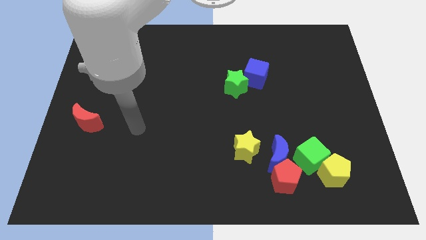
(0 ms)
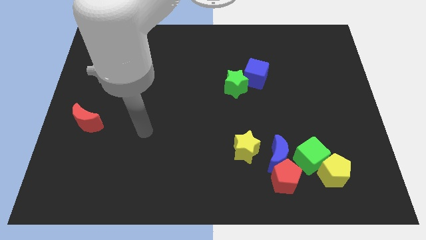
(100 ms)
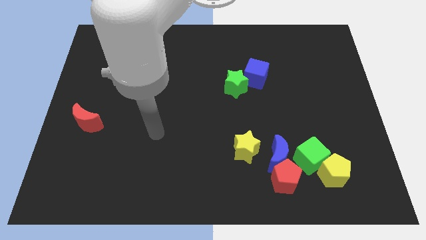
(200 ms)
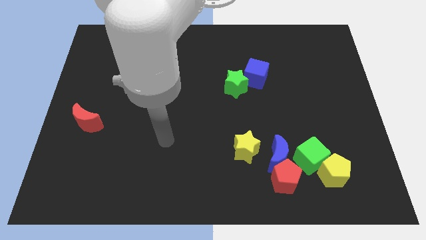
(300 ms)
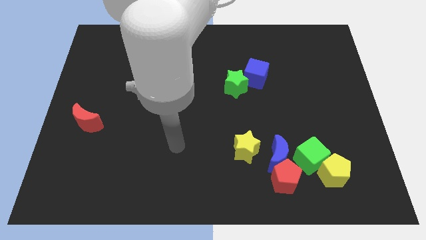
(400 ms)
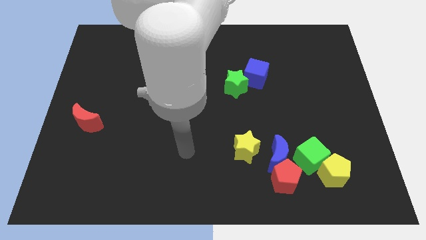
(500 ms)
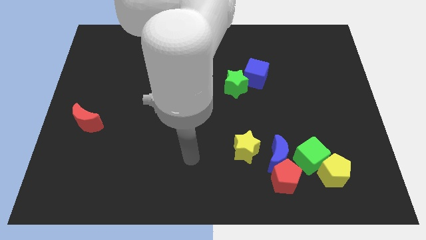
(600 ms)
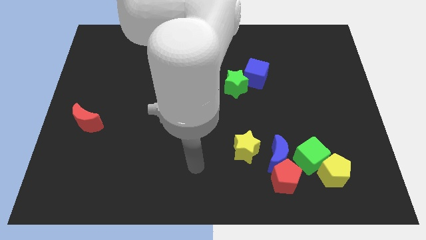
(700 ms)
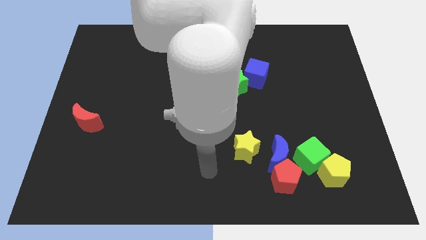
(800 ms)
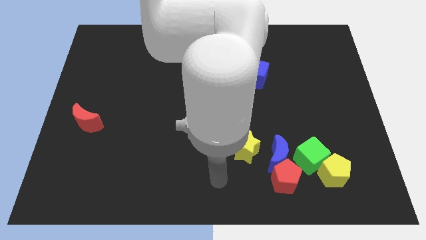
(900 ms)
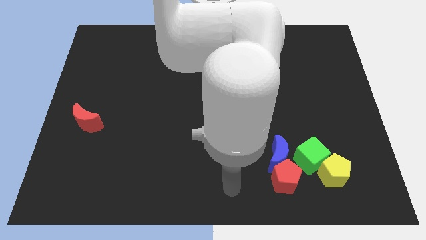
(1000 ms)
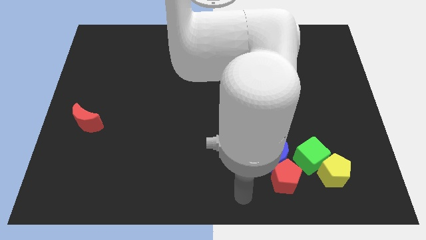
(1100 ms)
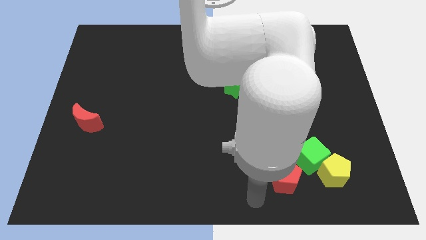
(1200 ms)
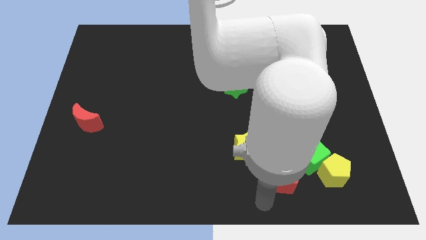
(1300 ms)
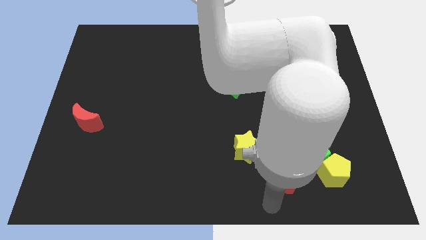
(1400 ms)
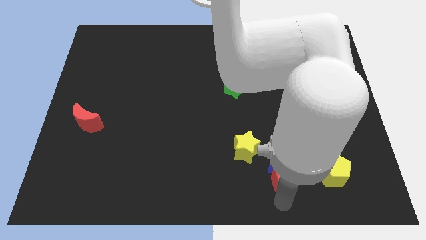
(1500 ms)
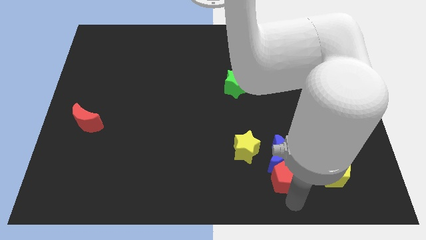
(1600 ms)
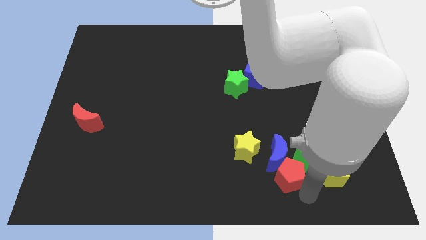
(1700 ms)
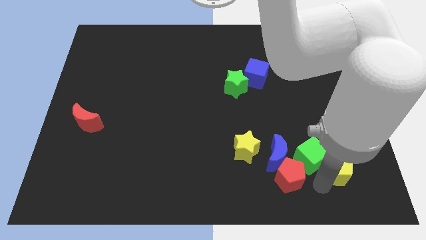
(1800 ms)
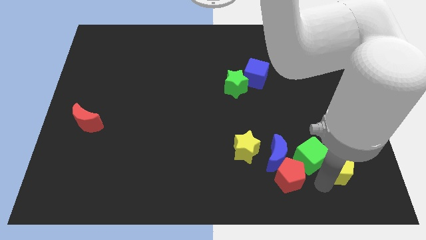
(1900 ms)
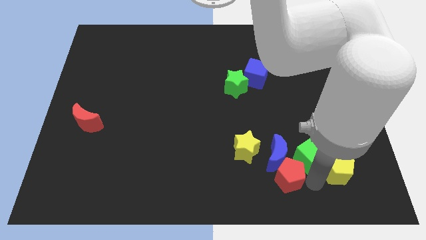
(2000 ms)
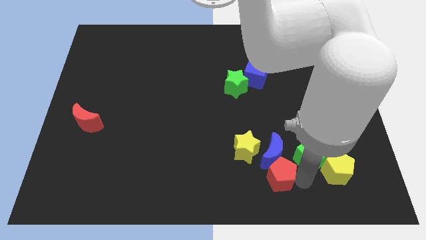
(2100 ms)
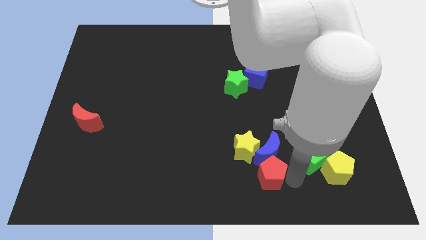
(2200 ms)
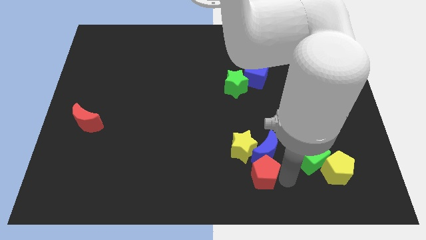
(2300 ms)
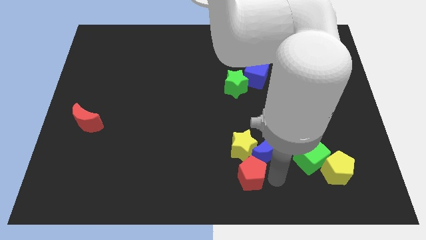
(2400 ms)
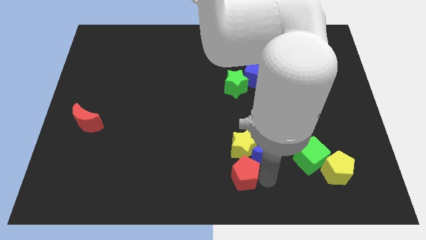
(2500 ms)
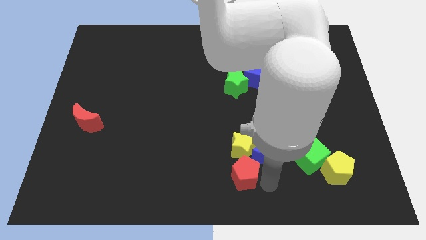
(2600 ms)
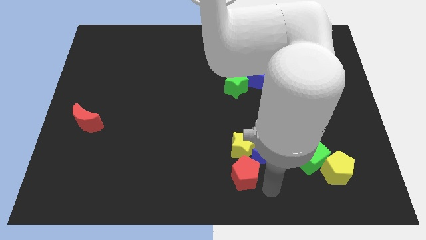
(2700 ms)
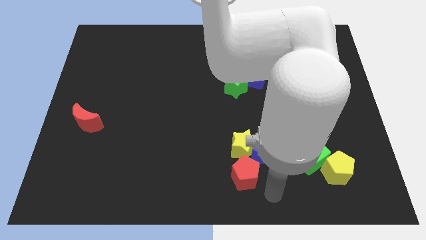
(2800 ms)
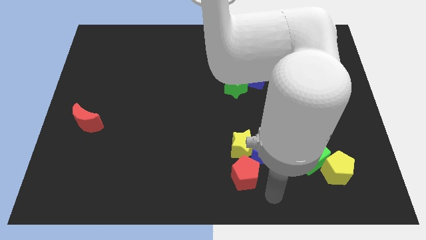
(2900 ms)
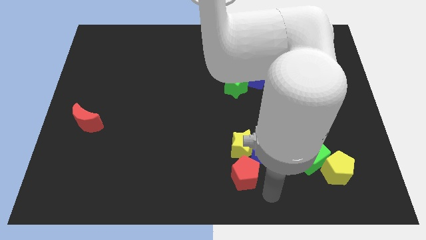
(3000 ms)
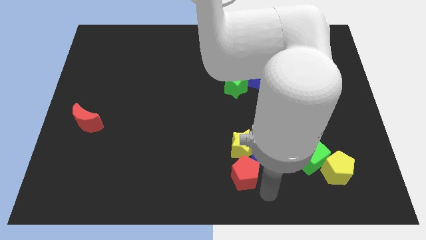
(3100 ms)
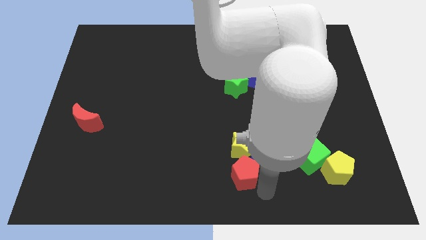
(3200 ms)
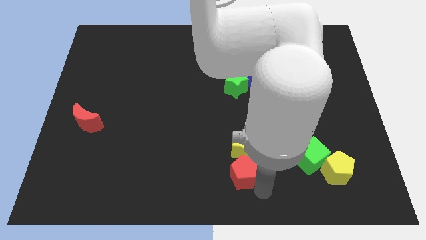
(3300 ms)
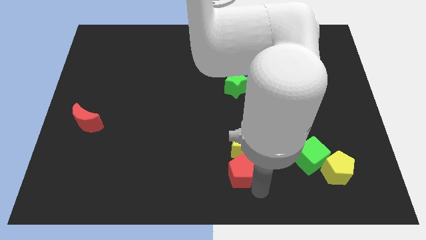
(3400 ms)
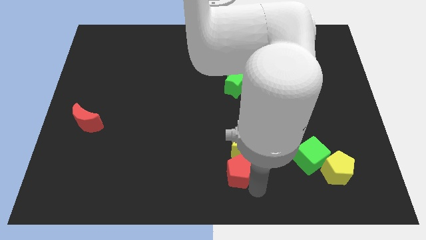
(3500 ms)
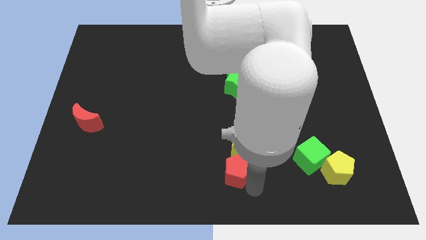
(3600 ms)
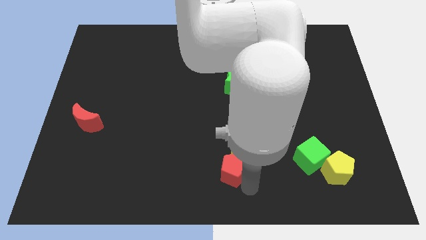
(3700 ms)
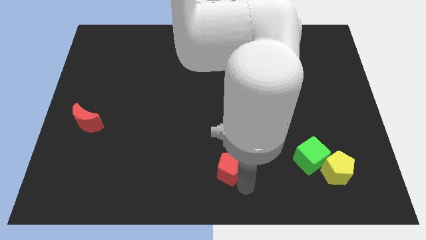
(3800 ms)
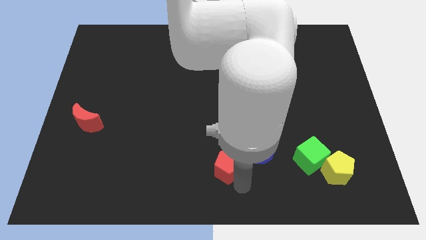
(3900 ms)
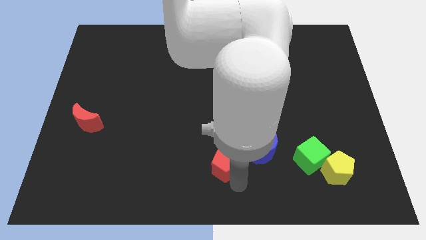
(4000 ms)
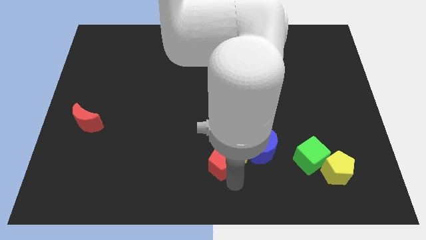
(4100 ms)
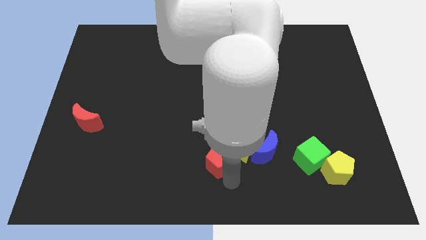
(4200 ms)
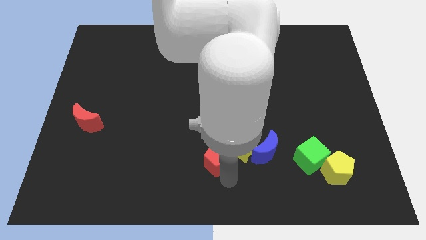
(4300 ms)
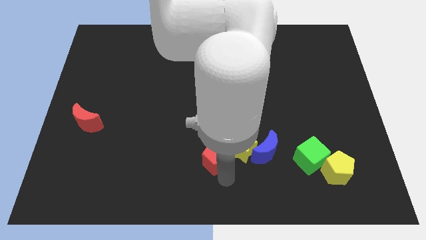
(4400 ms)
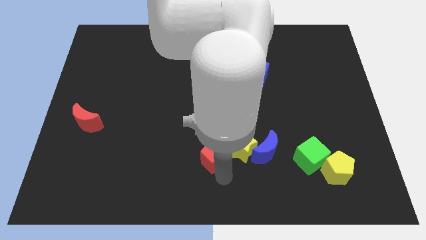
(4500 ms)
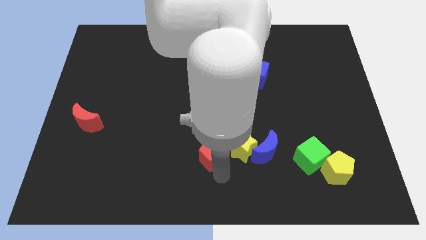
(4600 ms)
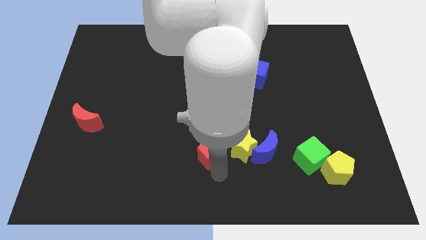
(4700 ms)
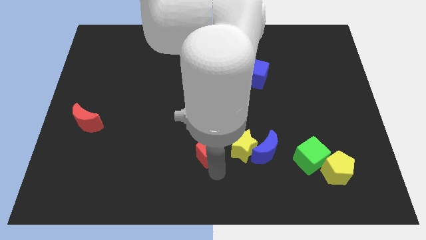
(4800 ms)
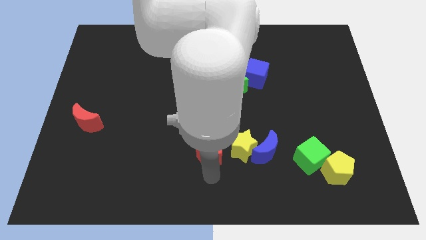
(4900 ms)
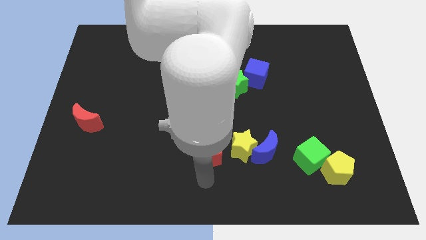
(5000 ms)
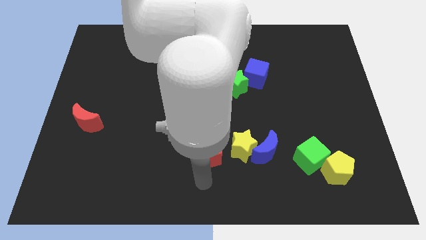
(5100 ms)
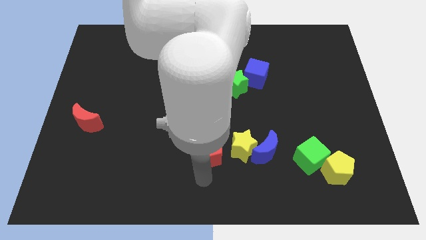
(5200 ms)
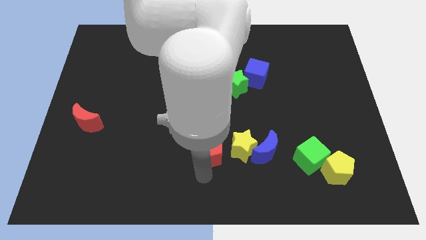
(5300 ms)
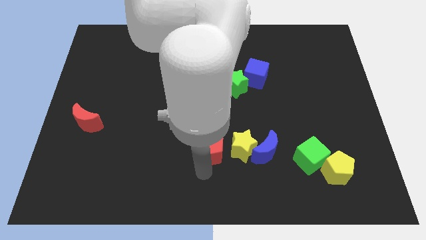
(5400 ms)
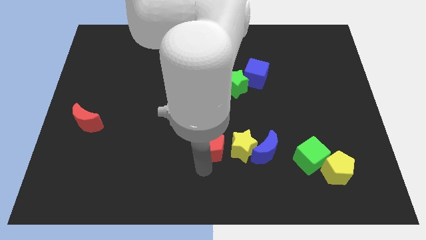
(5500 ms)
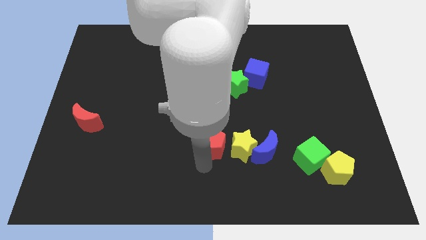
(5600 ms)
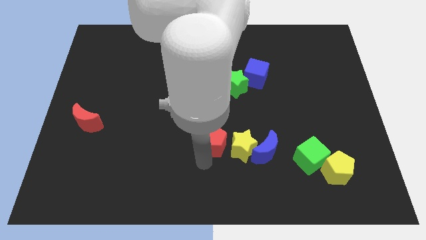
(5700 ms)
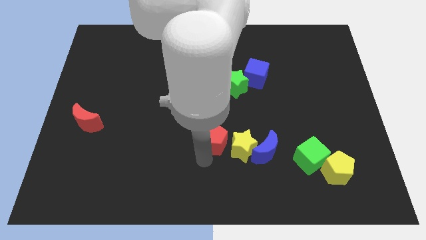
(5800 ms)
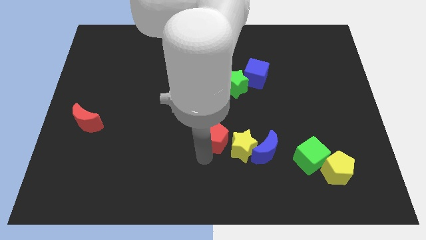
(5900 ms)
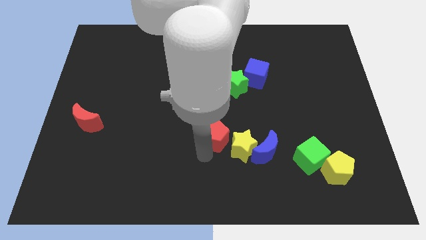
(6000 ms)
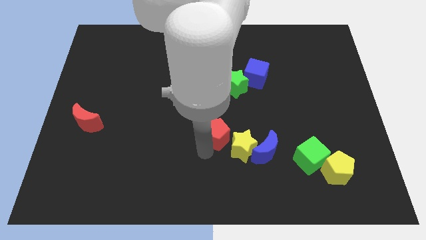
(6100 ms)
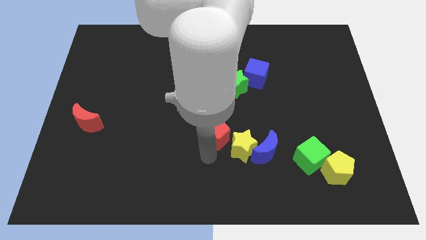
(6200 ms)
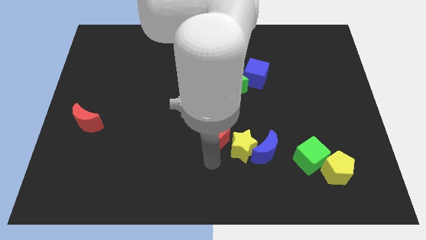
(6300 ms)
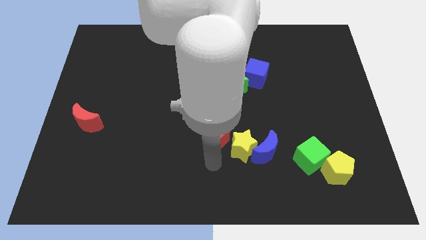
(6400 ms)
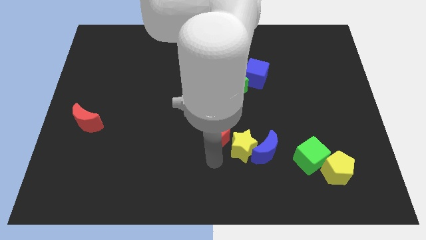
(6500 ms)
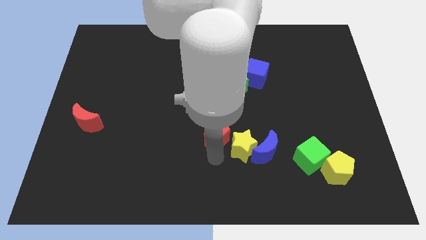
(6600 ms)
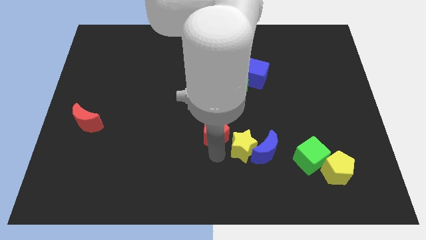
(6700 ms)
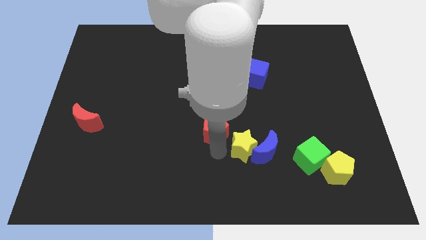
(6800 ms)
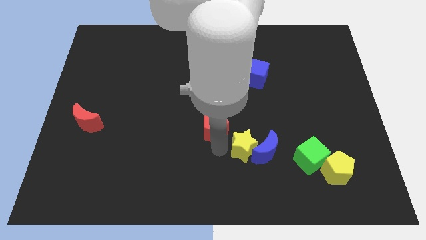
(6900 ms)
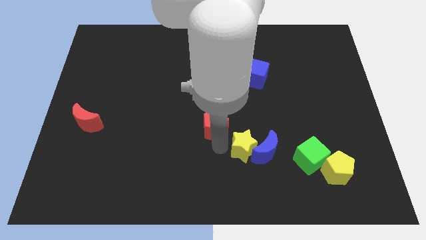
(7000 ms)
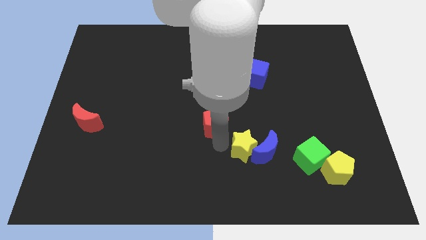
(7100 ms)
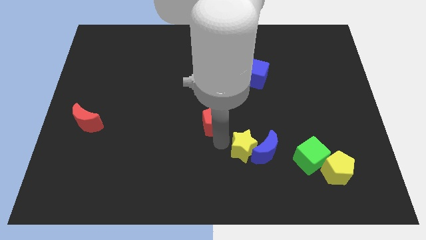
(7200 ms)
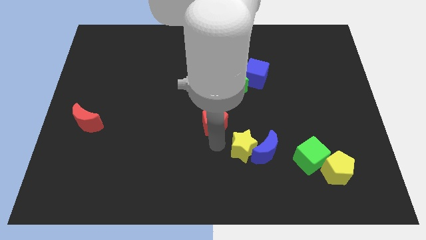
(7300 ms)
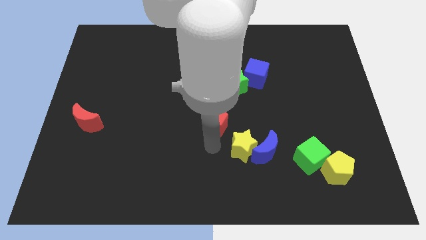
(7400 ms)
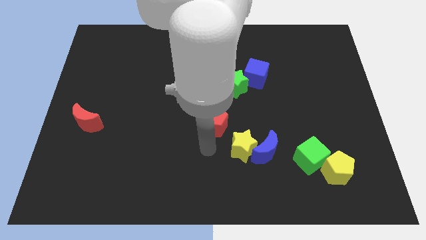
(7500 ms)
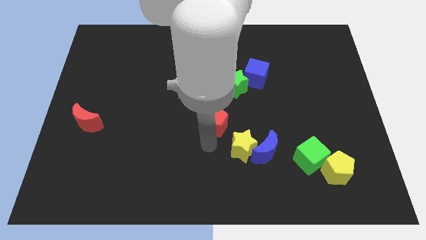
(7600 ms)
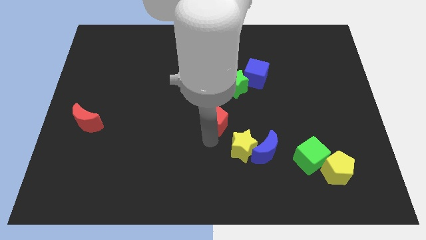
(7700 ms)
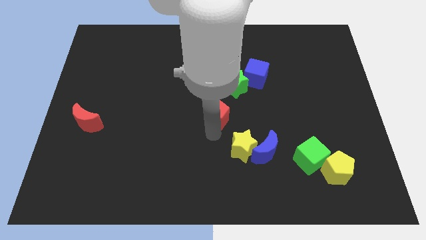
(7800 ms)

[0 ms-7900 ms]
move the red pentagon to the bottom left of the green star
